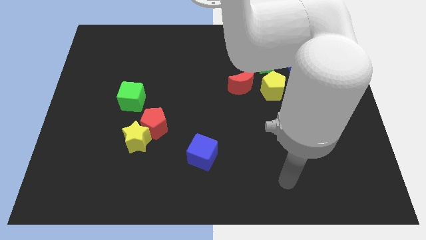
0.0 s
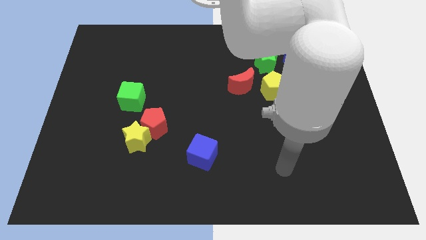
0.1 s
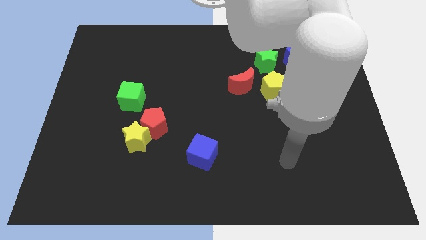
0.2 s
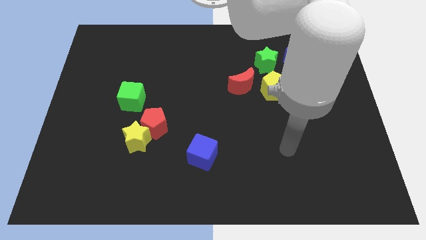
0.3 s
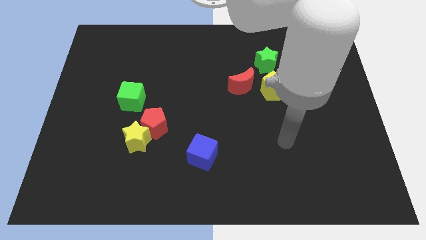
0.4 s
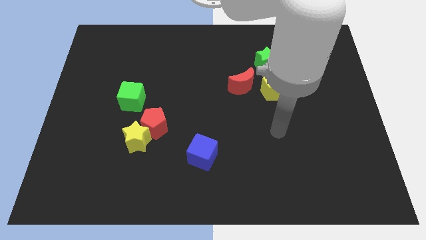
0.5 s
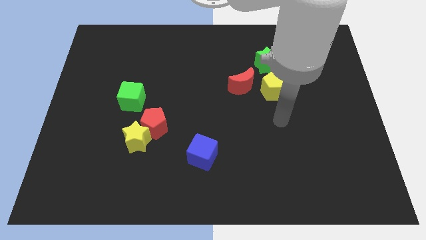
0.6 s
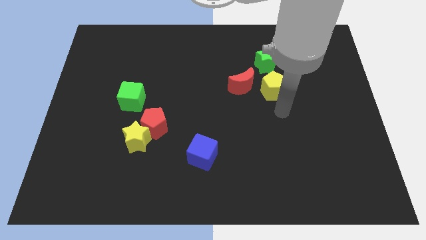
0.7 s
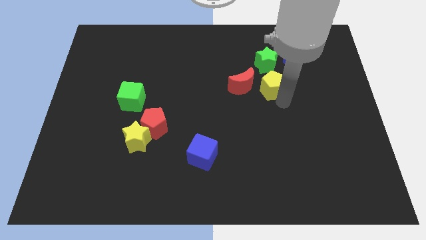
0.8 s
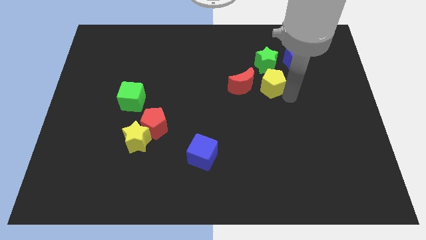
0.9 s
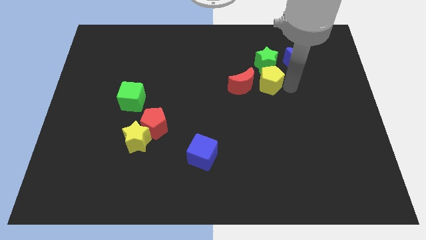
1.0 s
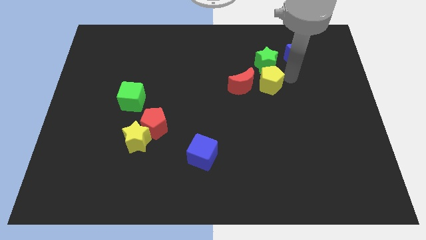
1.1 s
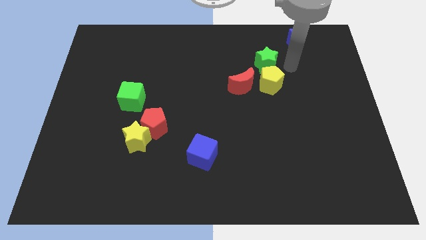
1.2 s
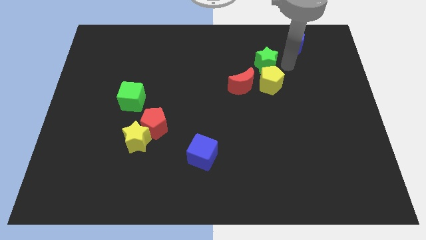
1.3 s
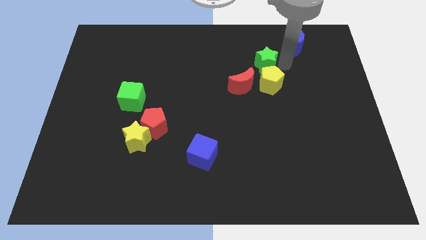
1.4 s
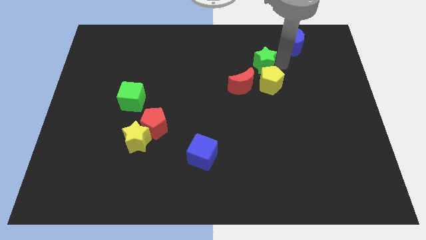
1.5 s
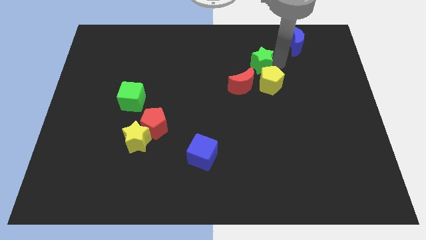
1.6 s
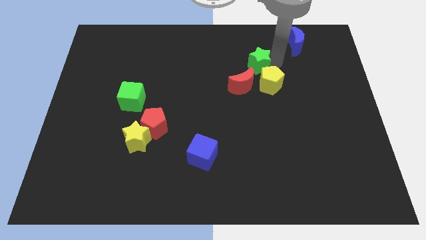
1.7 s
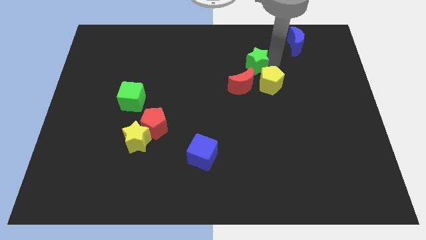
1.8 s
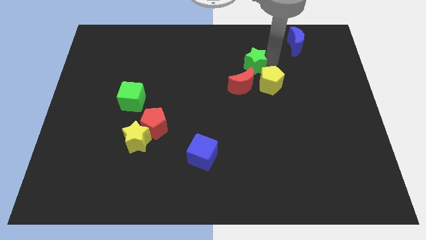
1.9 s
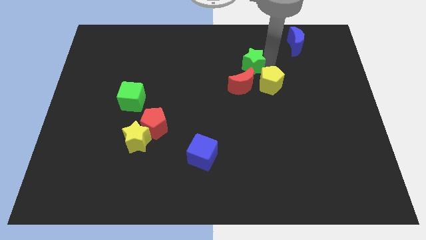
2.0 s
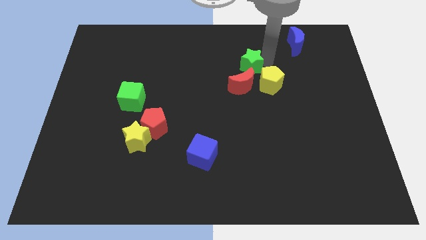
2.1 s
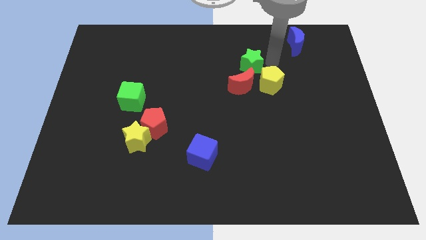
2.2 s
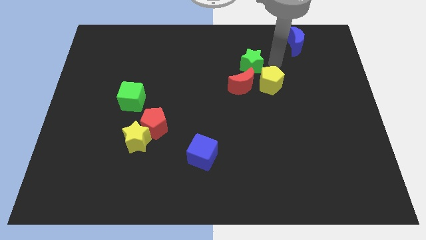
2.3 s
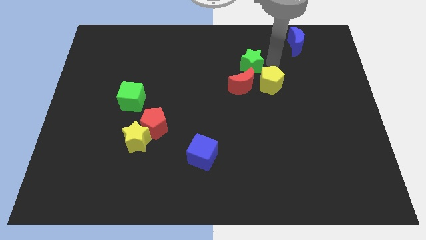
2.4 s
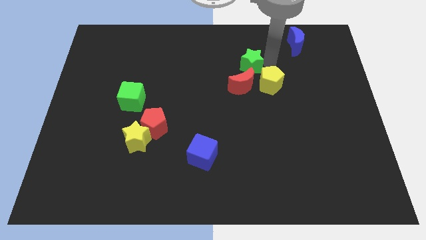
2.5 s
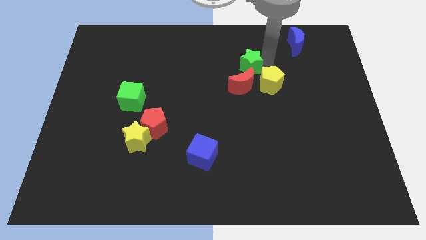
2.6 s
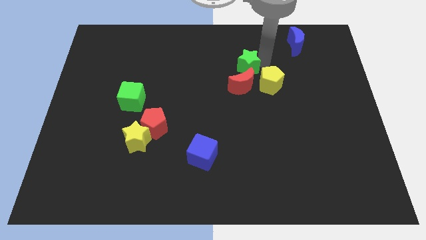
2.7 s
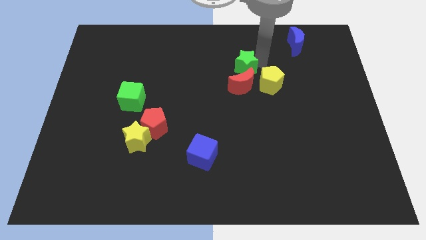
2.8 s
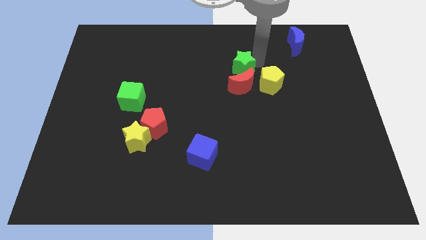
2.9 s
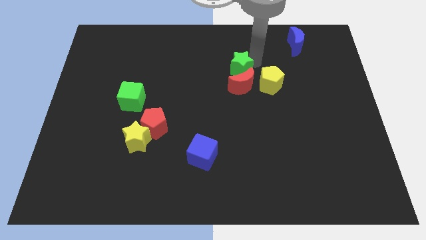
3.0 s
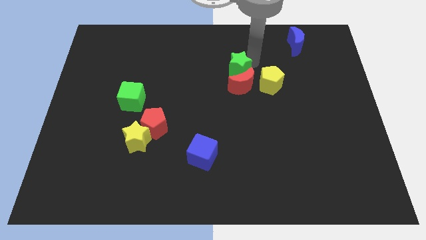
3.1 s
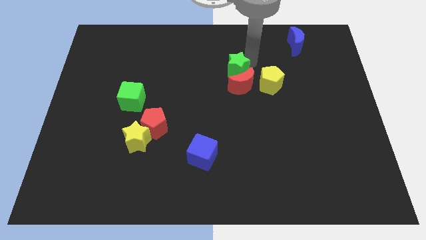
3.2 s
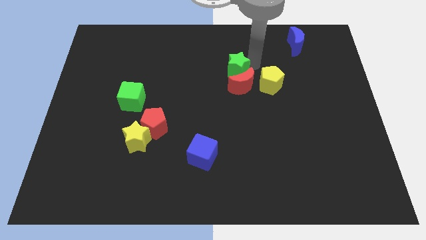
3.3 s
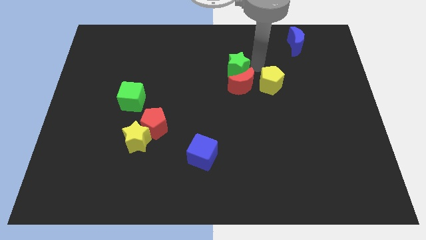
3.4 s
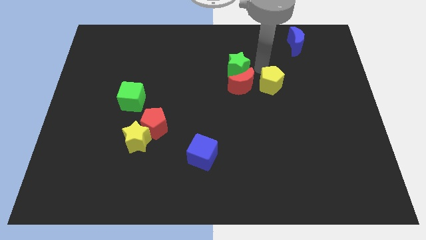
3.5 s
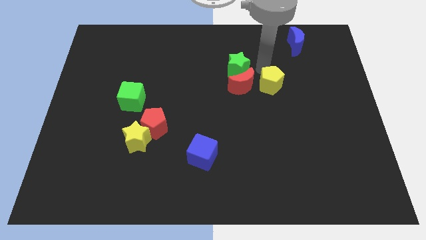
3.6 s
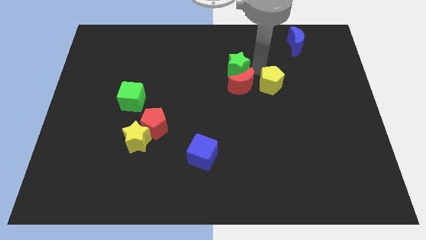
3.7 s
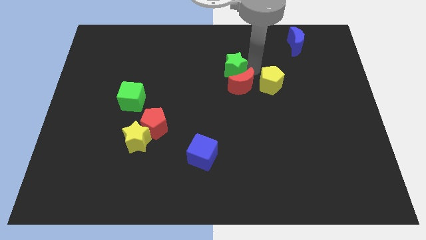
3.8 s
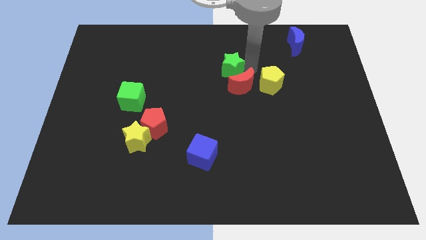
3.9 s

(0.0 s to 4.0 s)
slide the green star downwards and then left a bit

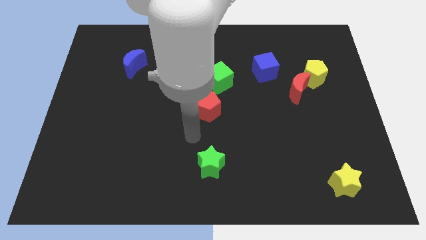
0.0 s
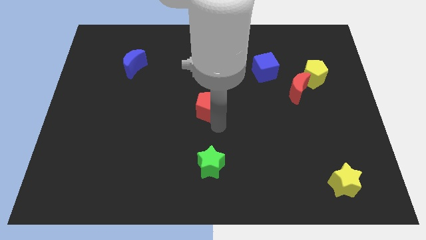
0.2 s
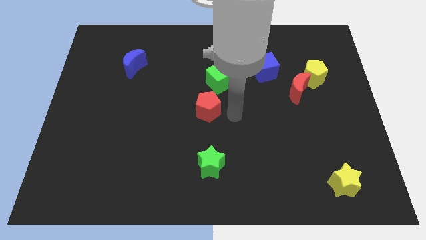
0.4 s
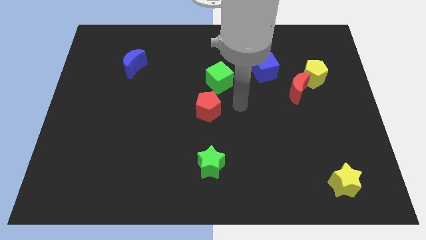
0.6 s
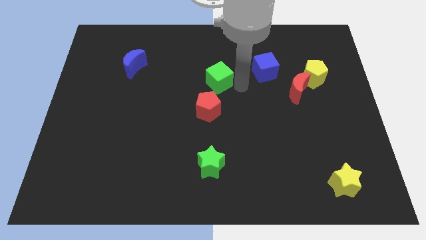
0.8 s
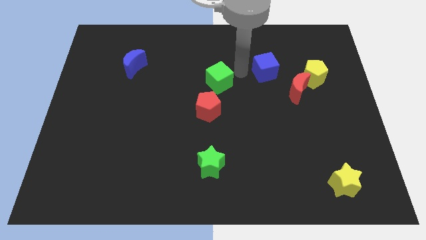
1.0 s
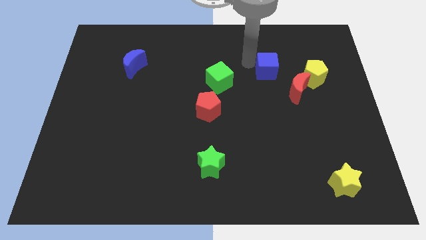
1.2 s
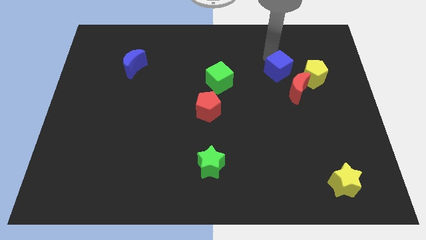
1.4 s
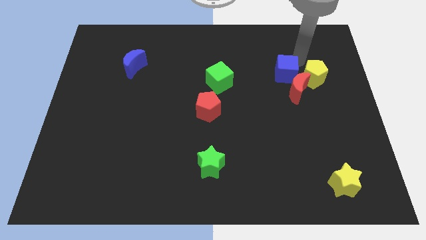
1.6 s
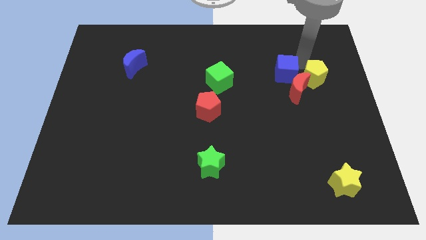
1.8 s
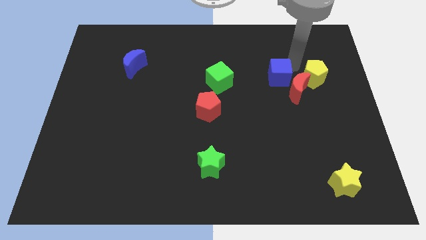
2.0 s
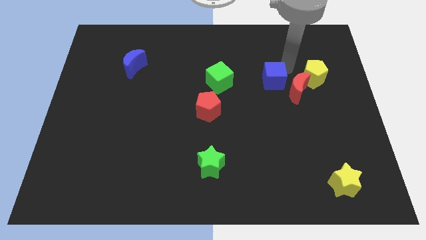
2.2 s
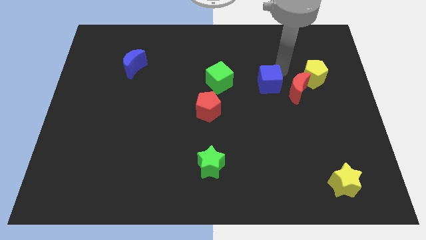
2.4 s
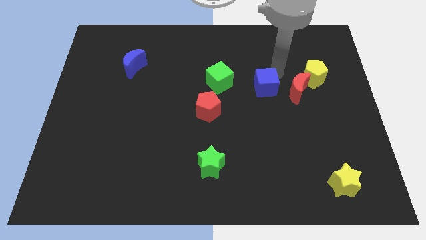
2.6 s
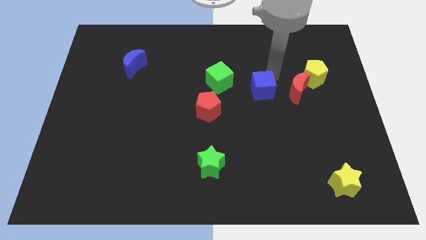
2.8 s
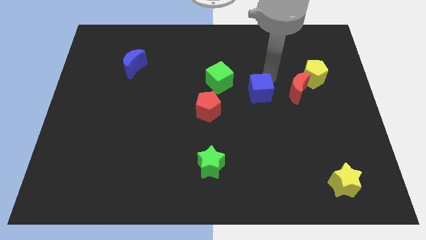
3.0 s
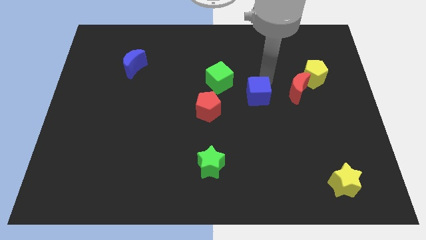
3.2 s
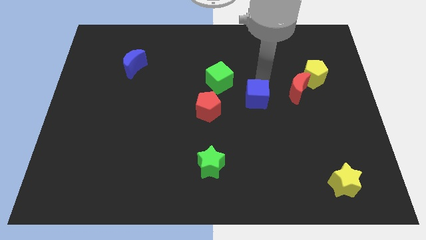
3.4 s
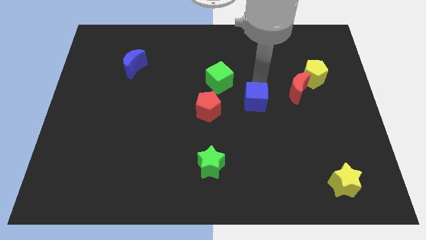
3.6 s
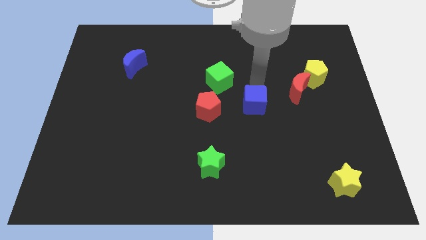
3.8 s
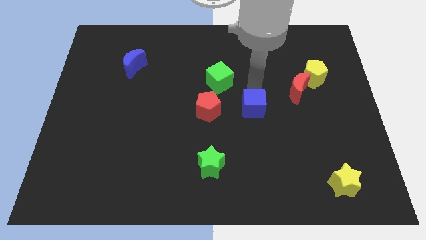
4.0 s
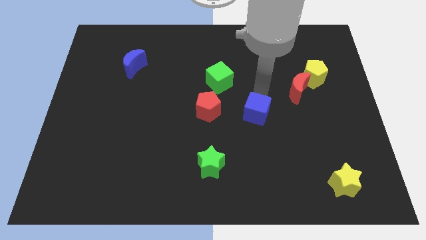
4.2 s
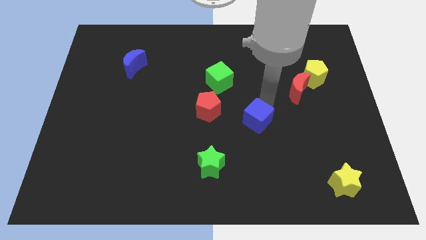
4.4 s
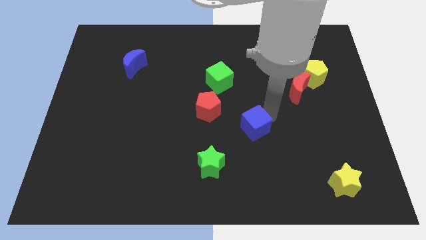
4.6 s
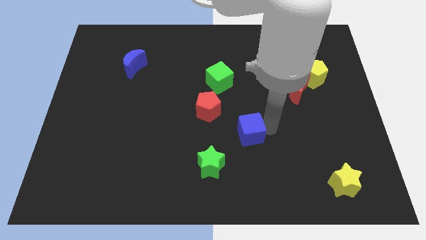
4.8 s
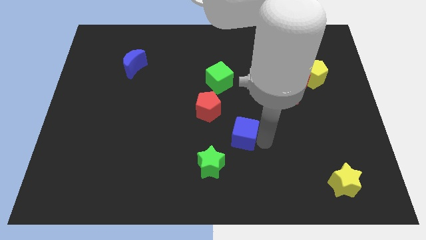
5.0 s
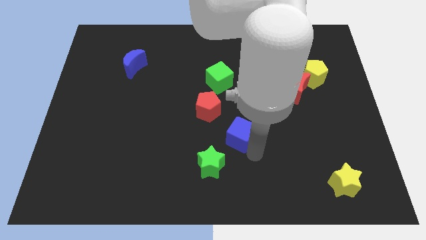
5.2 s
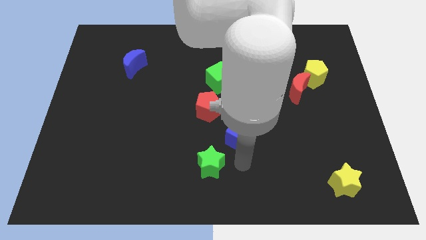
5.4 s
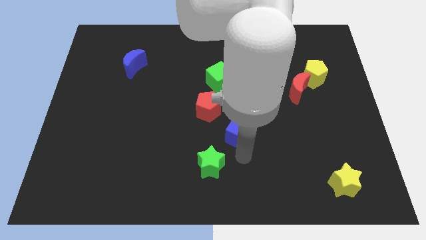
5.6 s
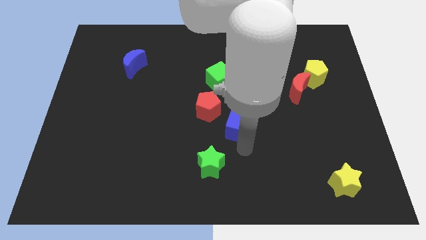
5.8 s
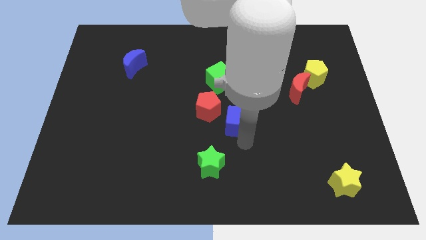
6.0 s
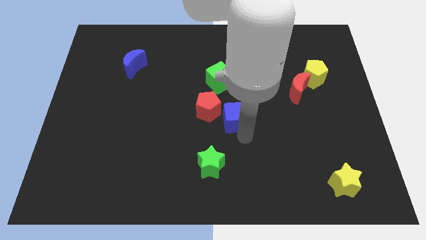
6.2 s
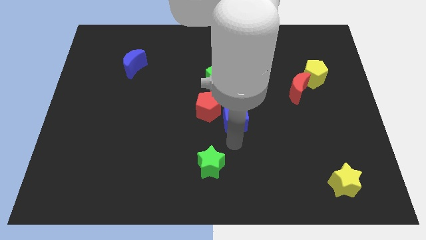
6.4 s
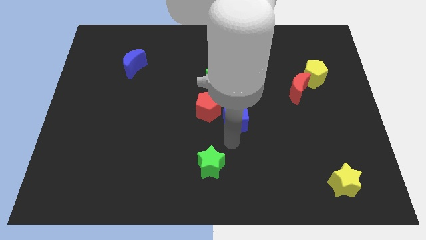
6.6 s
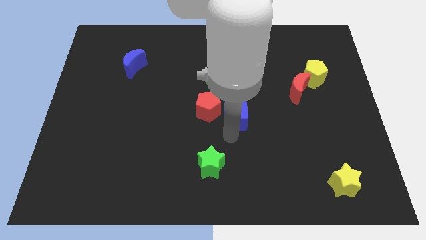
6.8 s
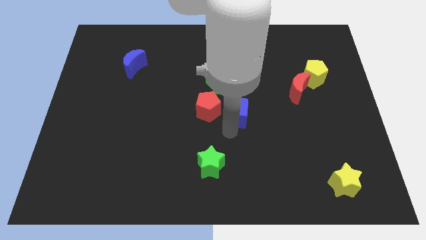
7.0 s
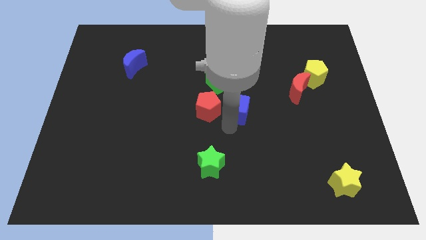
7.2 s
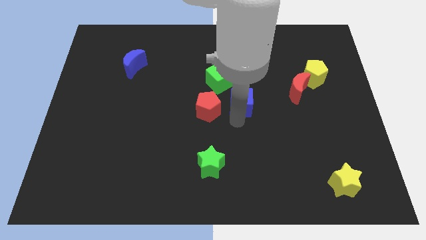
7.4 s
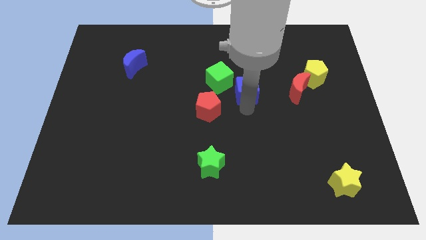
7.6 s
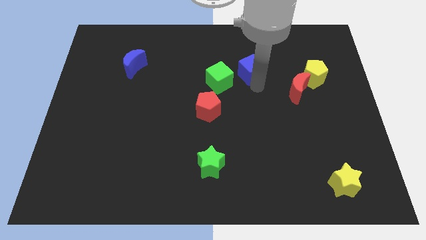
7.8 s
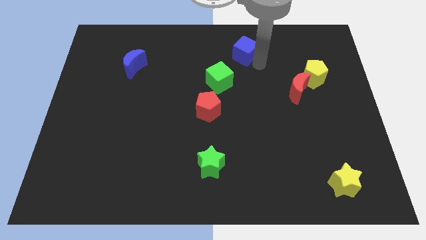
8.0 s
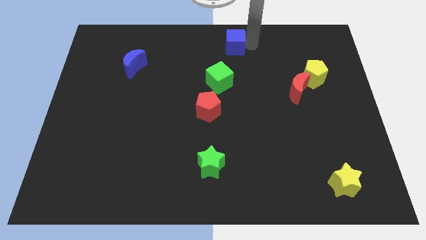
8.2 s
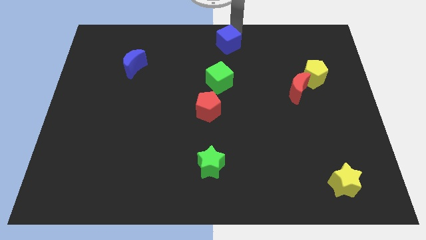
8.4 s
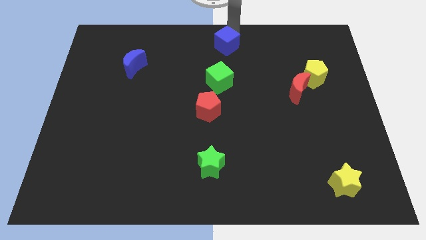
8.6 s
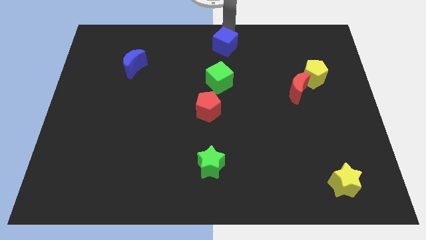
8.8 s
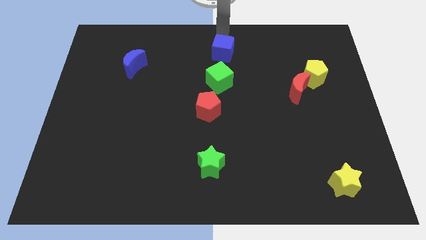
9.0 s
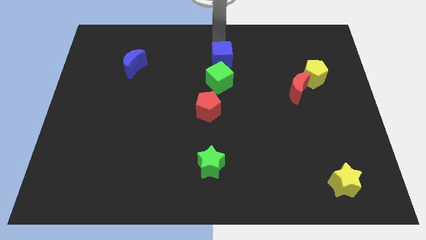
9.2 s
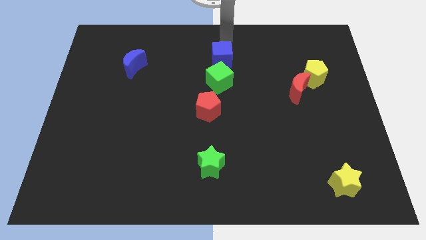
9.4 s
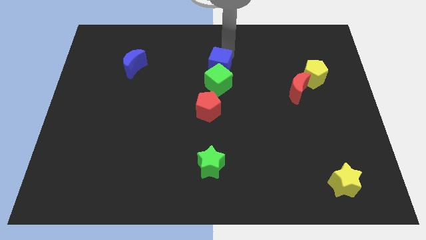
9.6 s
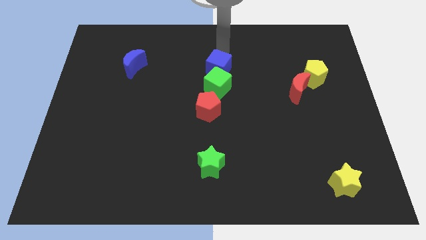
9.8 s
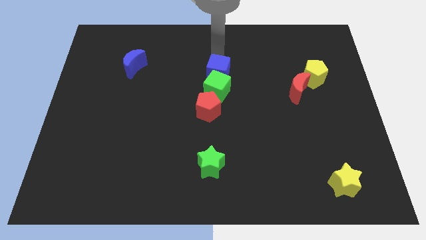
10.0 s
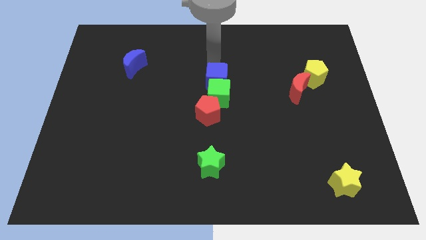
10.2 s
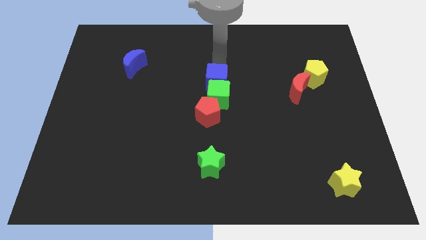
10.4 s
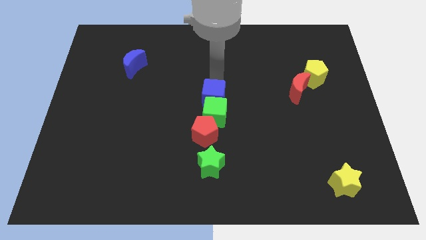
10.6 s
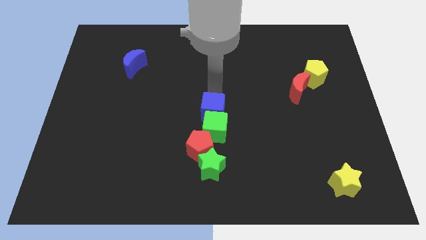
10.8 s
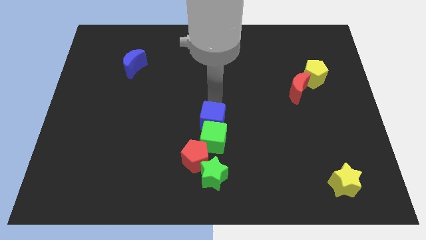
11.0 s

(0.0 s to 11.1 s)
move the blue cube downwards and left diagonally
